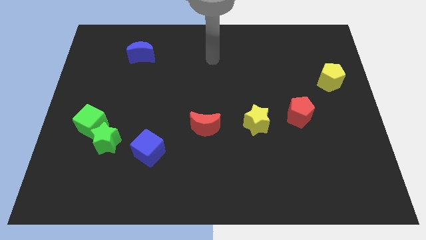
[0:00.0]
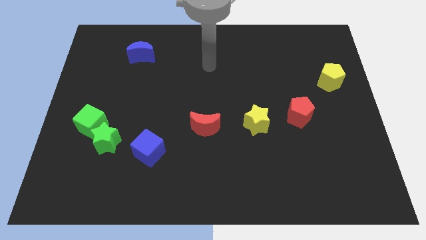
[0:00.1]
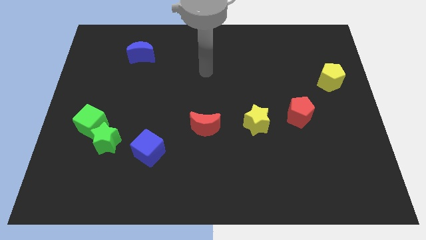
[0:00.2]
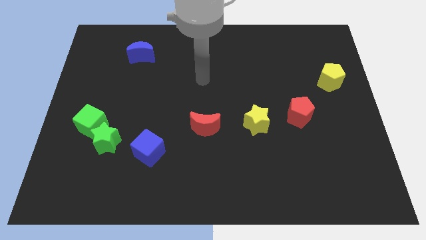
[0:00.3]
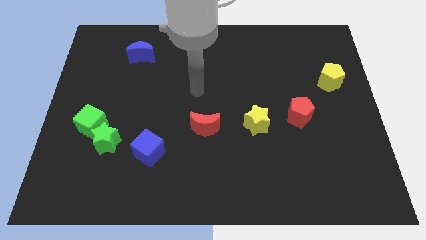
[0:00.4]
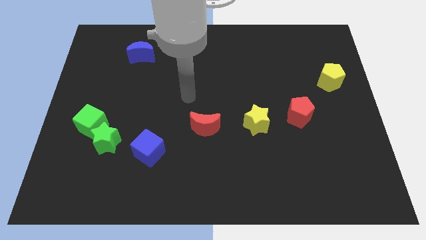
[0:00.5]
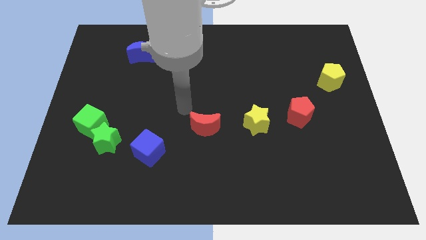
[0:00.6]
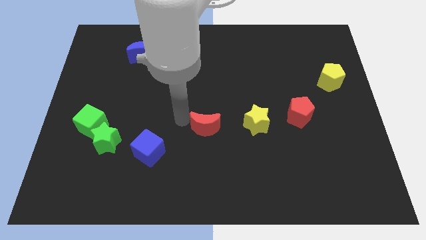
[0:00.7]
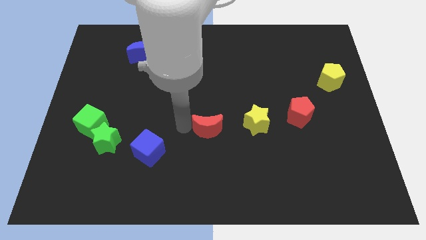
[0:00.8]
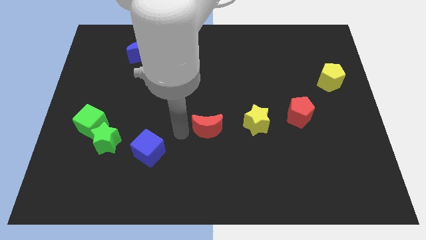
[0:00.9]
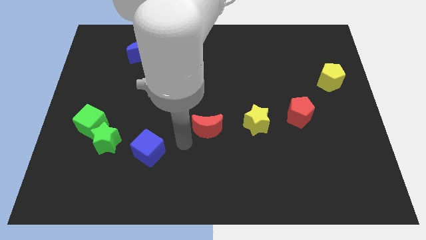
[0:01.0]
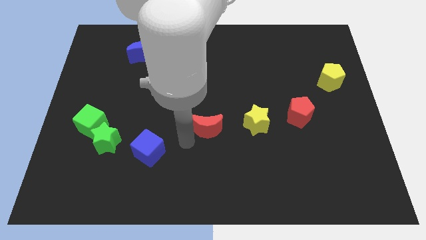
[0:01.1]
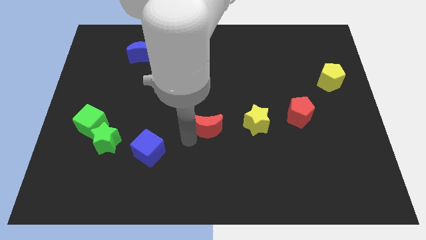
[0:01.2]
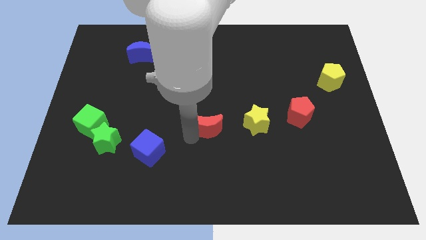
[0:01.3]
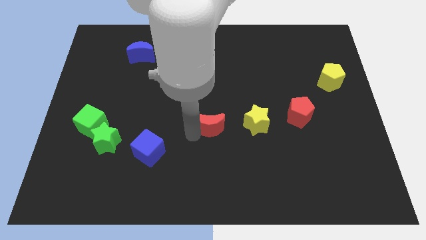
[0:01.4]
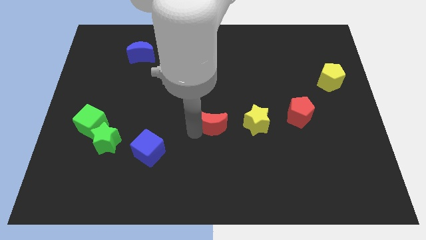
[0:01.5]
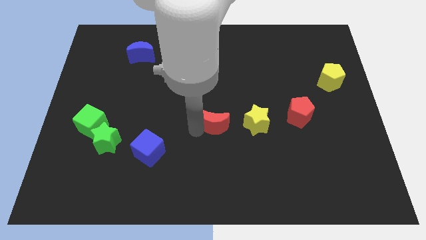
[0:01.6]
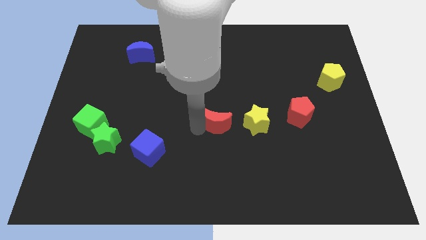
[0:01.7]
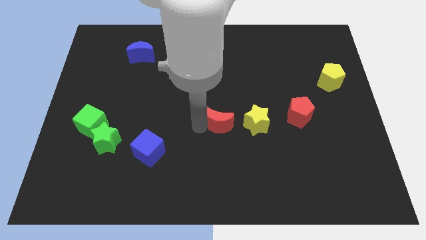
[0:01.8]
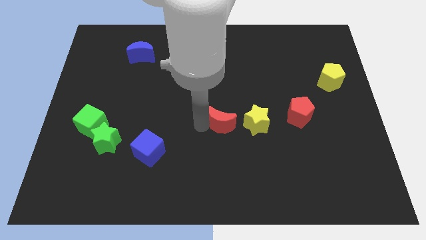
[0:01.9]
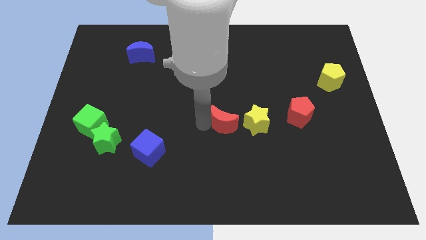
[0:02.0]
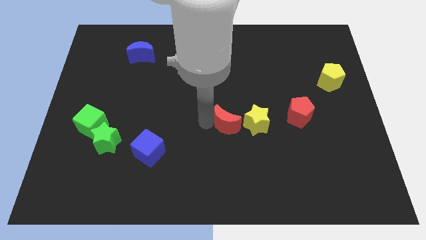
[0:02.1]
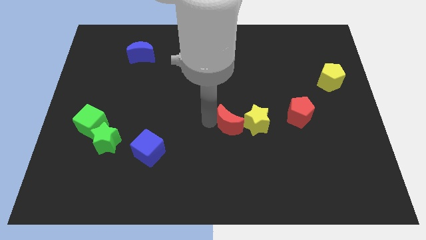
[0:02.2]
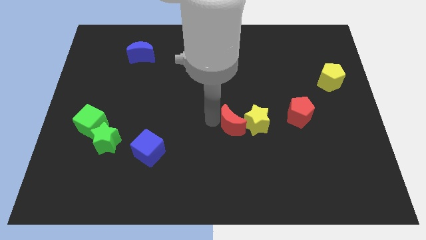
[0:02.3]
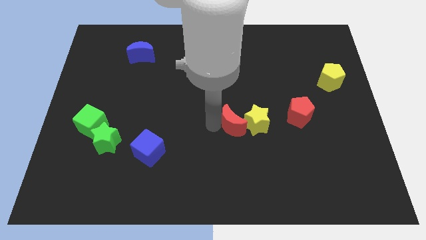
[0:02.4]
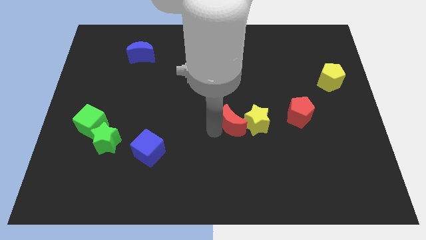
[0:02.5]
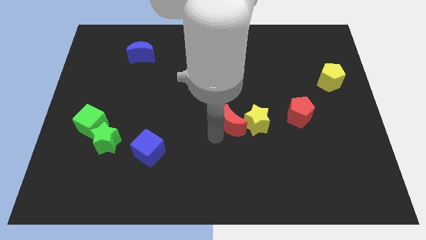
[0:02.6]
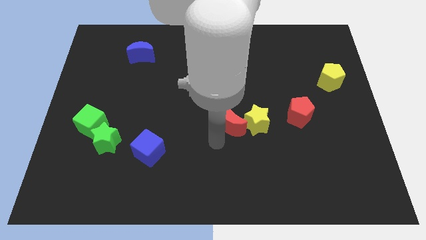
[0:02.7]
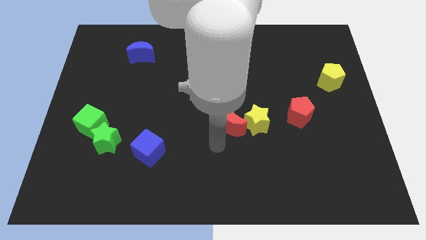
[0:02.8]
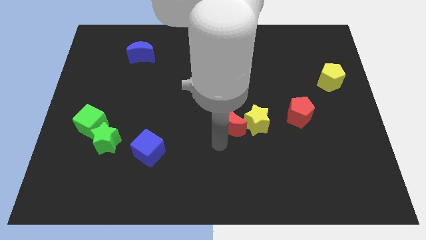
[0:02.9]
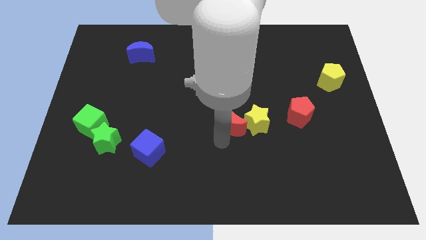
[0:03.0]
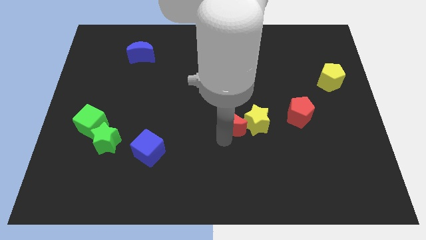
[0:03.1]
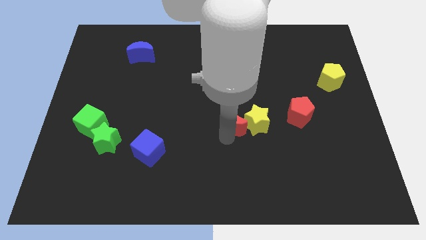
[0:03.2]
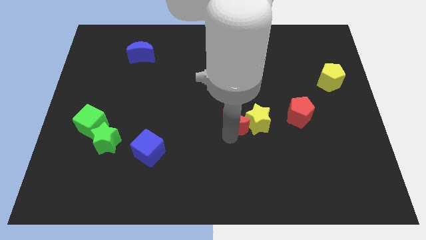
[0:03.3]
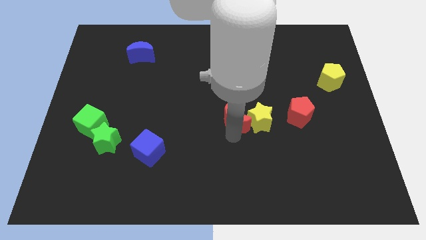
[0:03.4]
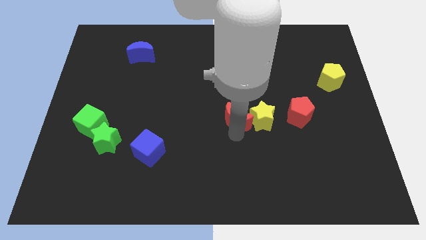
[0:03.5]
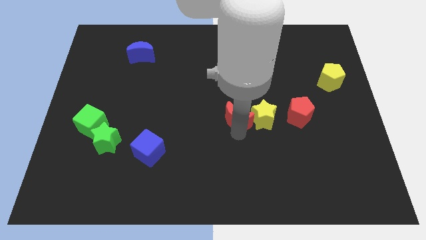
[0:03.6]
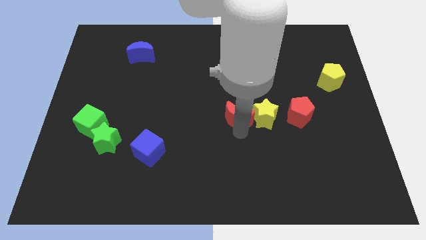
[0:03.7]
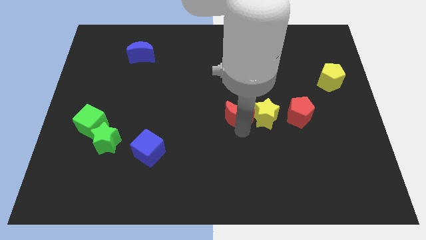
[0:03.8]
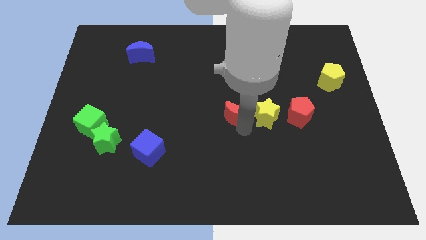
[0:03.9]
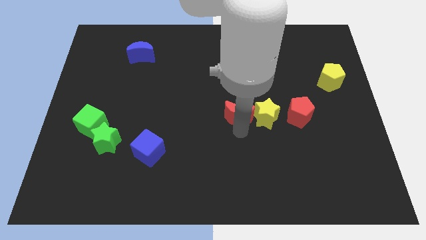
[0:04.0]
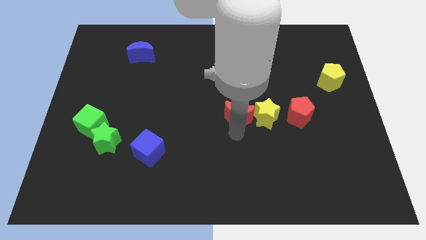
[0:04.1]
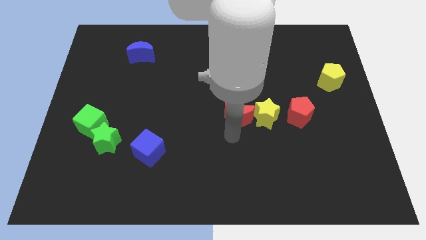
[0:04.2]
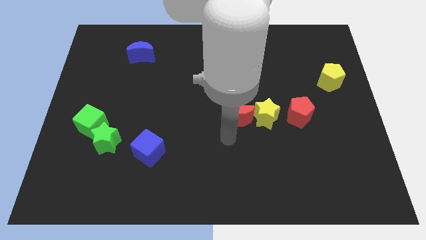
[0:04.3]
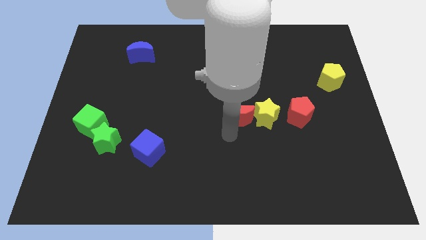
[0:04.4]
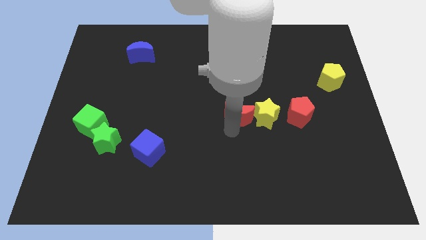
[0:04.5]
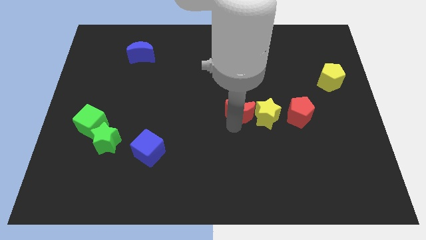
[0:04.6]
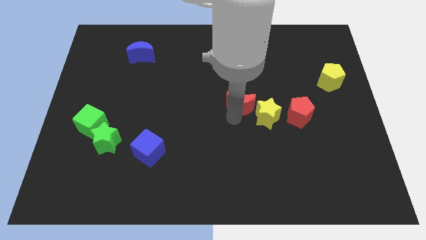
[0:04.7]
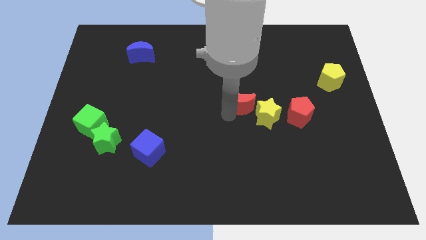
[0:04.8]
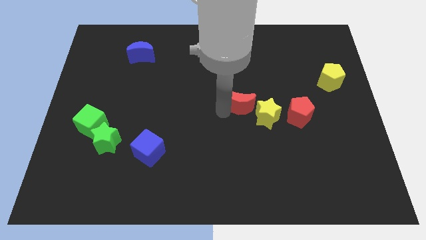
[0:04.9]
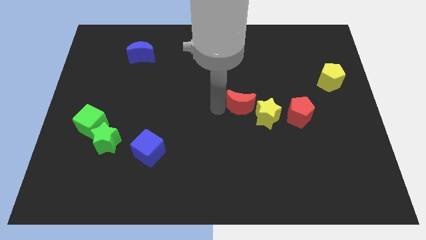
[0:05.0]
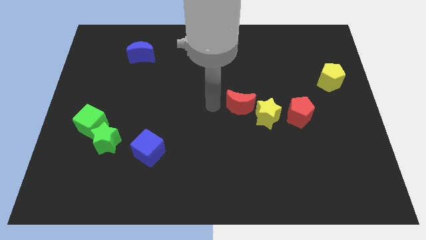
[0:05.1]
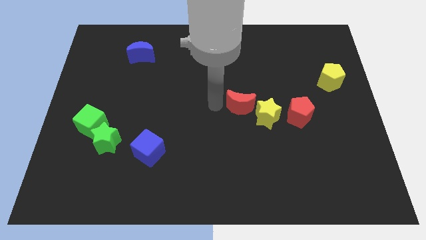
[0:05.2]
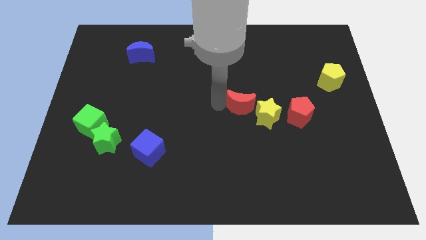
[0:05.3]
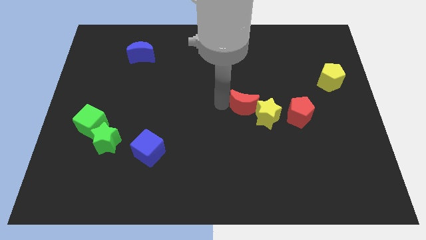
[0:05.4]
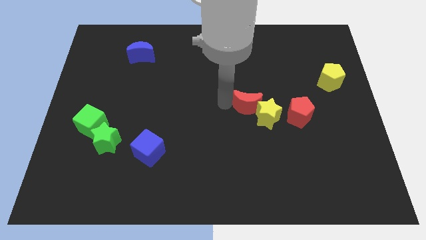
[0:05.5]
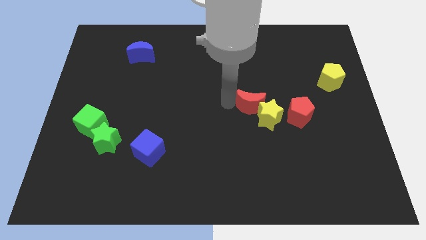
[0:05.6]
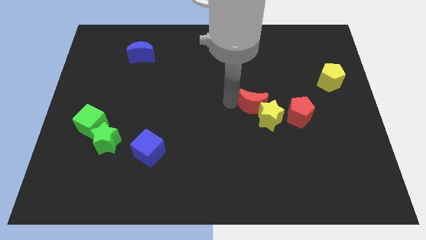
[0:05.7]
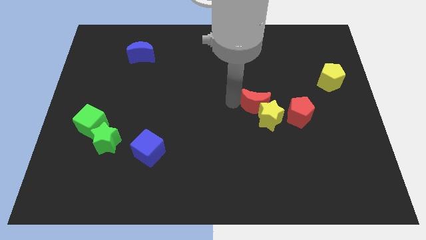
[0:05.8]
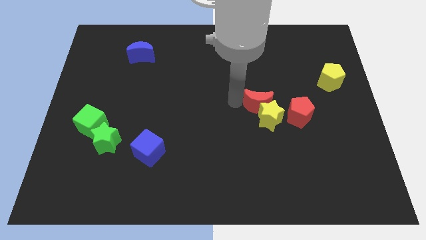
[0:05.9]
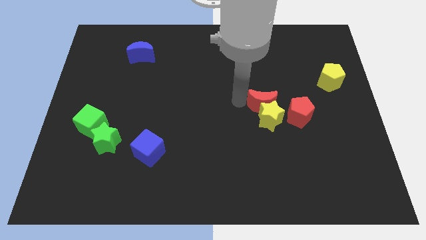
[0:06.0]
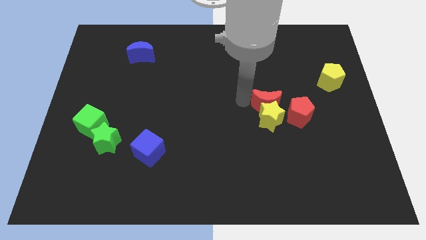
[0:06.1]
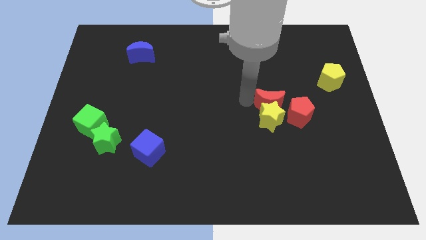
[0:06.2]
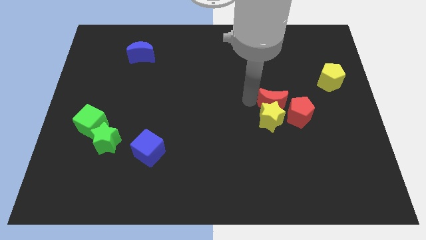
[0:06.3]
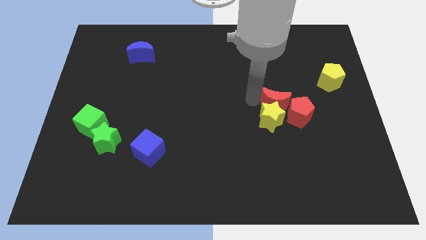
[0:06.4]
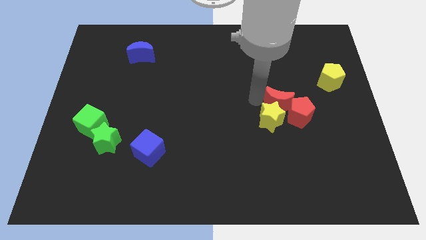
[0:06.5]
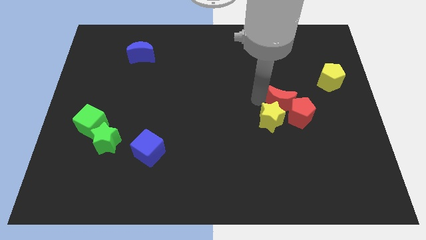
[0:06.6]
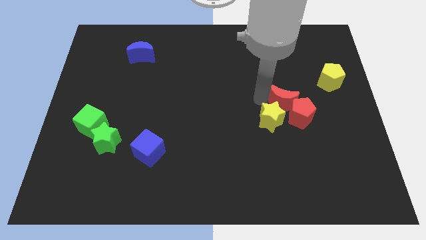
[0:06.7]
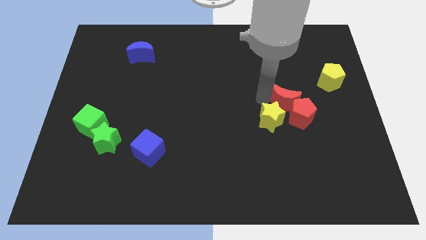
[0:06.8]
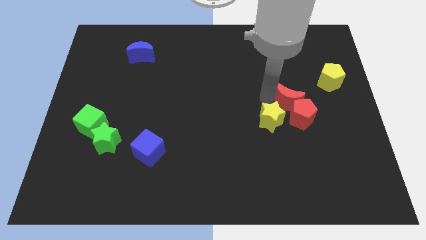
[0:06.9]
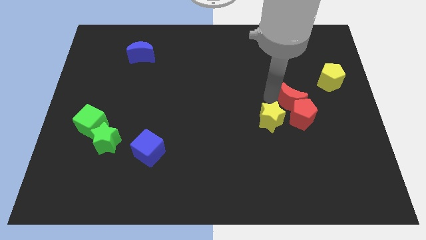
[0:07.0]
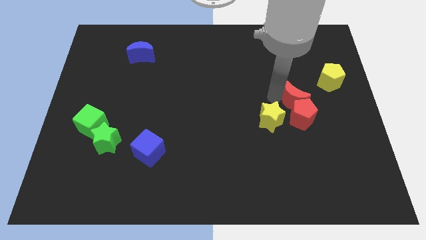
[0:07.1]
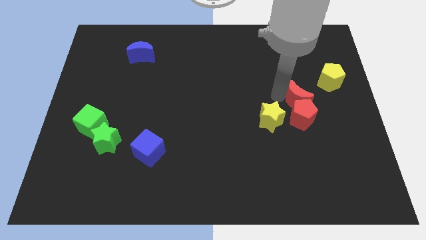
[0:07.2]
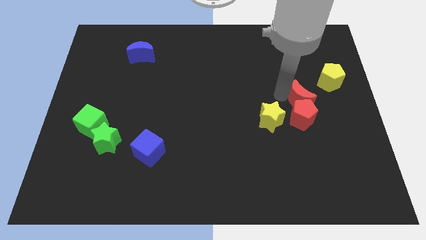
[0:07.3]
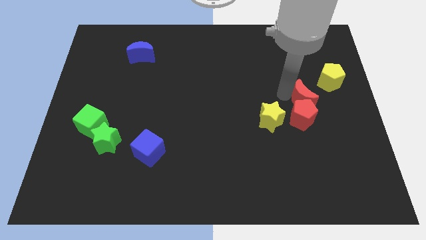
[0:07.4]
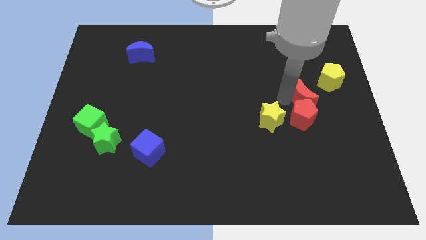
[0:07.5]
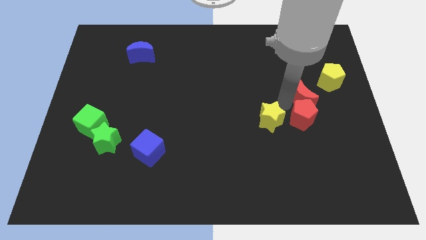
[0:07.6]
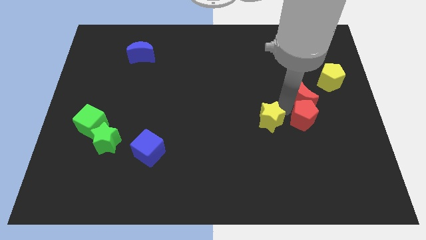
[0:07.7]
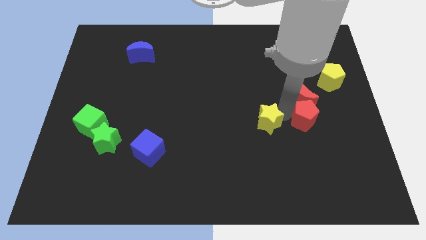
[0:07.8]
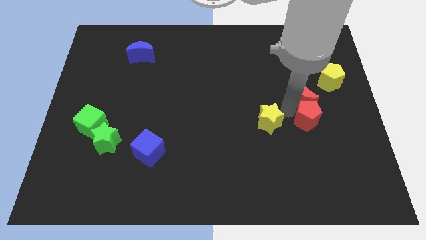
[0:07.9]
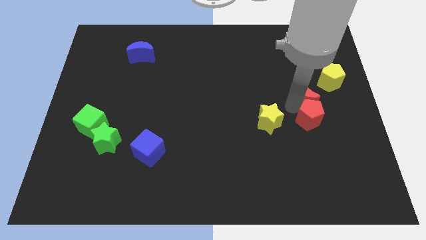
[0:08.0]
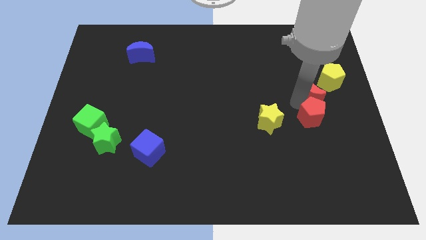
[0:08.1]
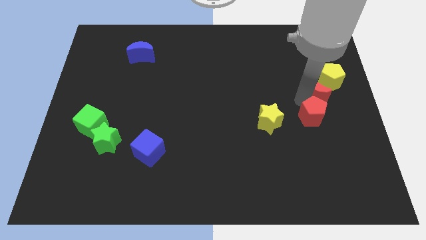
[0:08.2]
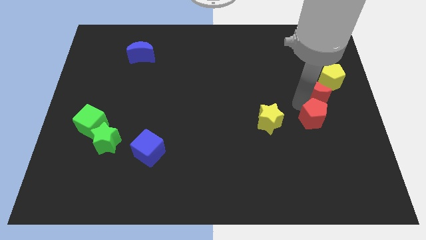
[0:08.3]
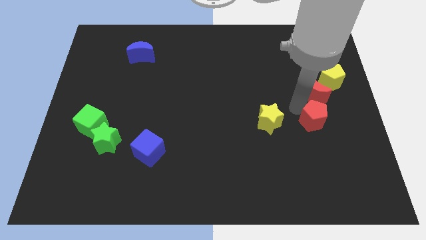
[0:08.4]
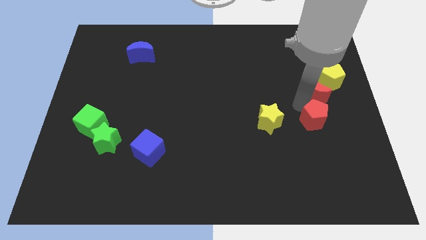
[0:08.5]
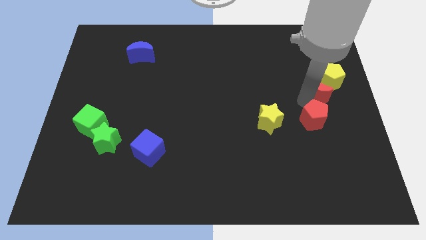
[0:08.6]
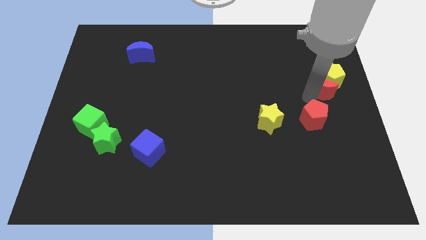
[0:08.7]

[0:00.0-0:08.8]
put the red moon to the yellow pentagon
